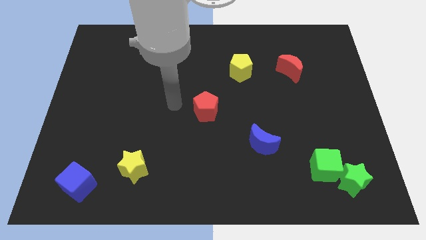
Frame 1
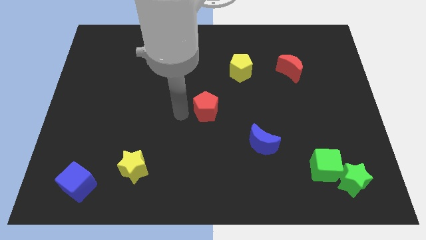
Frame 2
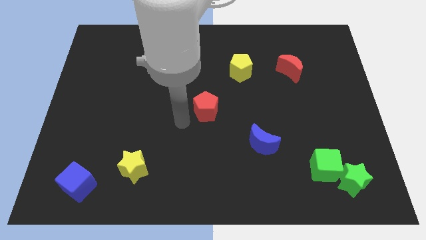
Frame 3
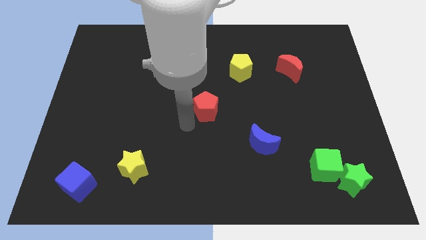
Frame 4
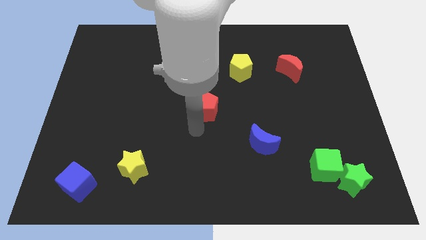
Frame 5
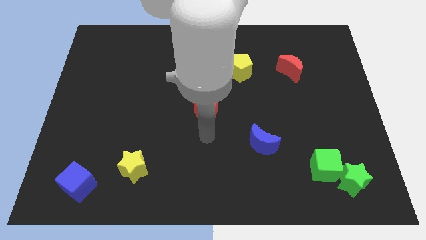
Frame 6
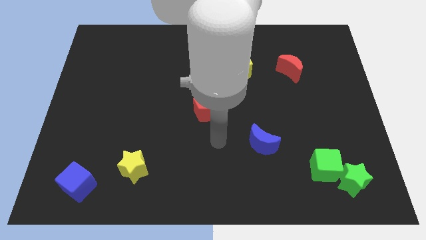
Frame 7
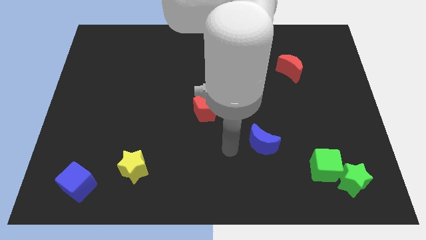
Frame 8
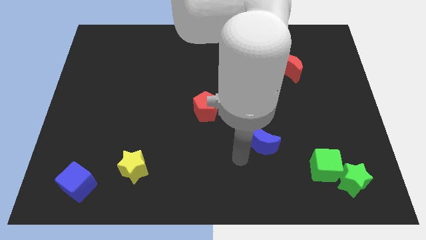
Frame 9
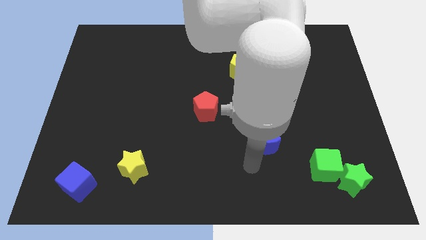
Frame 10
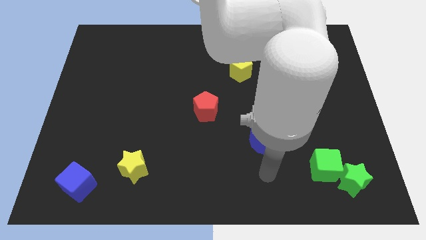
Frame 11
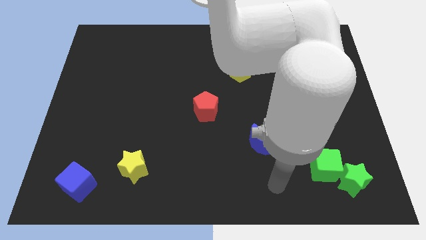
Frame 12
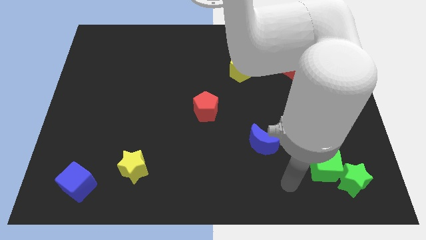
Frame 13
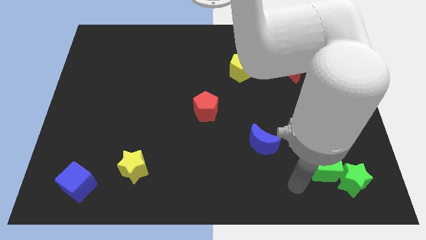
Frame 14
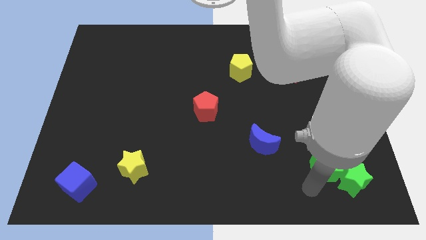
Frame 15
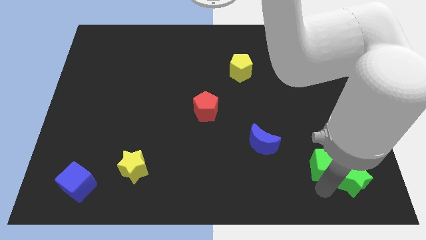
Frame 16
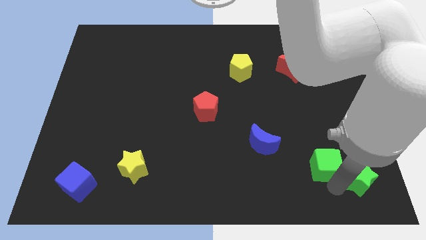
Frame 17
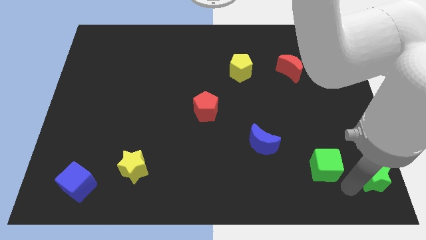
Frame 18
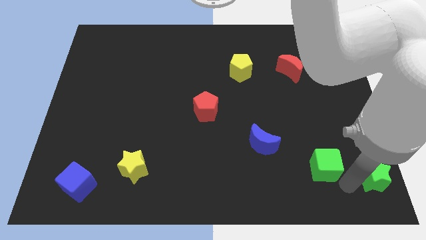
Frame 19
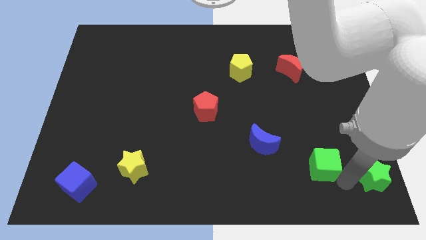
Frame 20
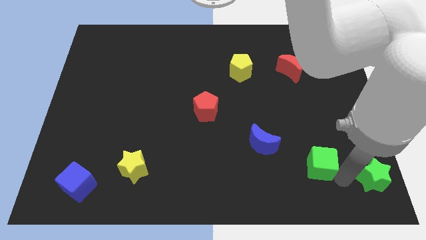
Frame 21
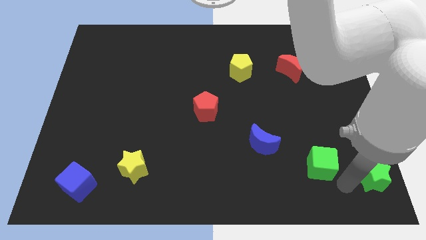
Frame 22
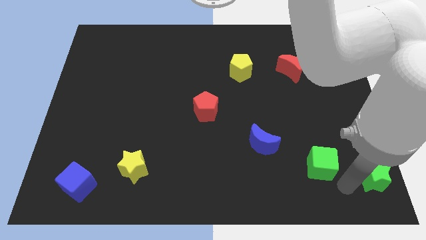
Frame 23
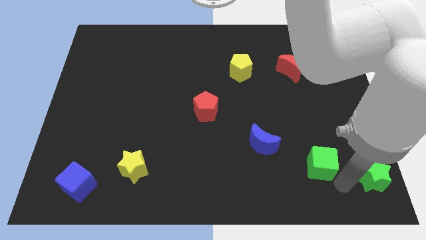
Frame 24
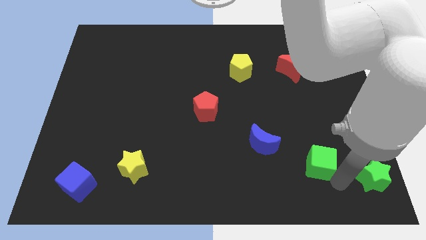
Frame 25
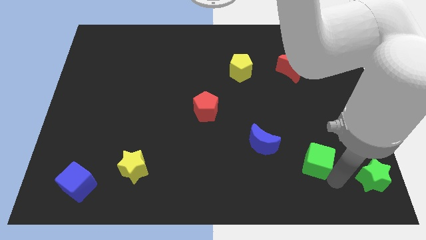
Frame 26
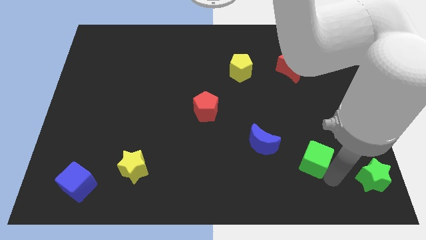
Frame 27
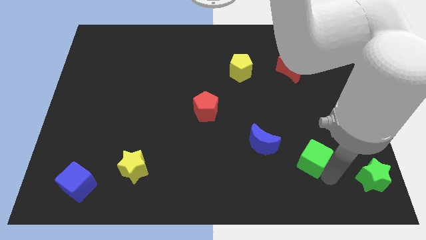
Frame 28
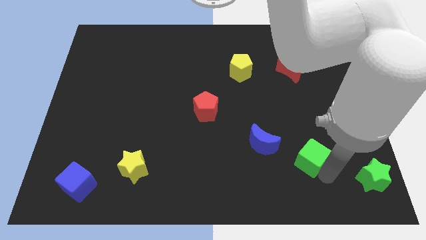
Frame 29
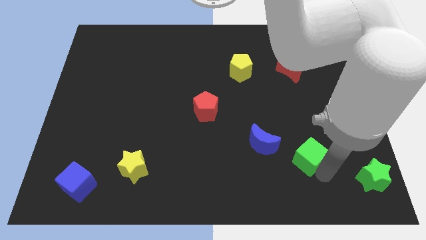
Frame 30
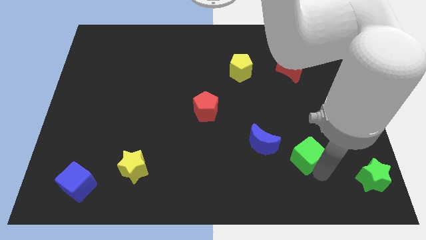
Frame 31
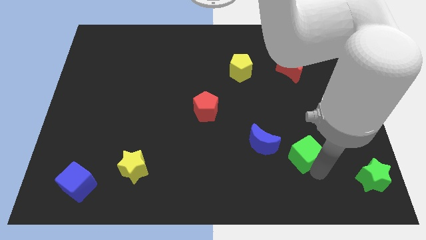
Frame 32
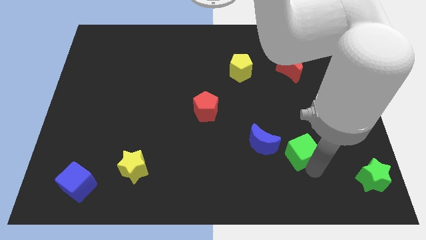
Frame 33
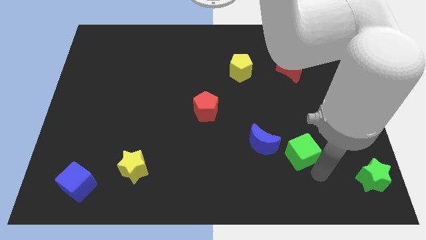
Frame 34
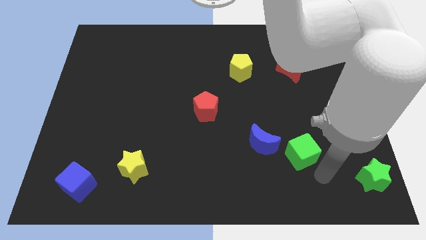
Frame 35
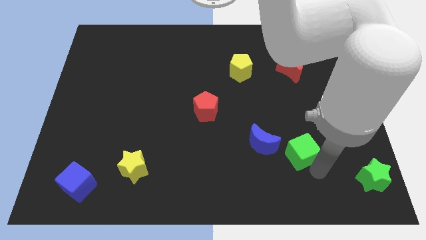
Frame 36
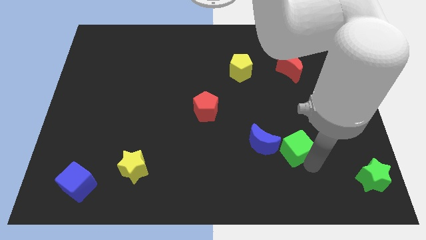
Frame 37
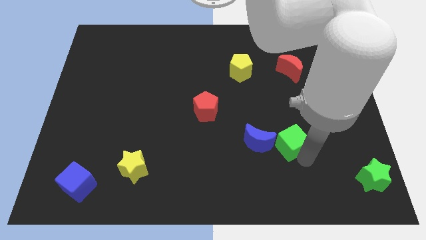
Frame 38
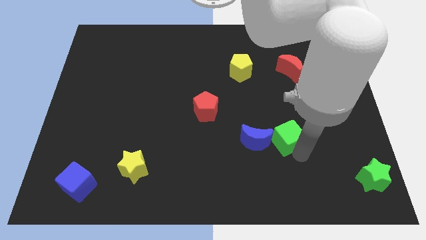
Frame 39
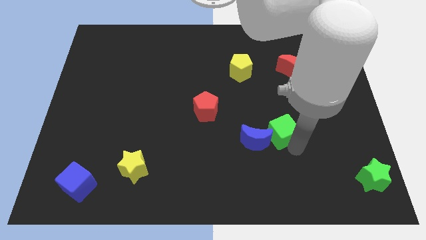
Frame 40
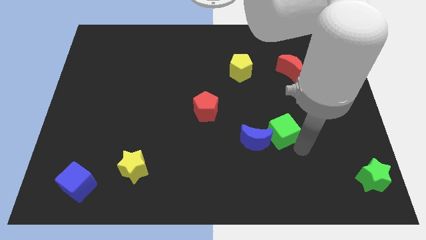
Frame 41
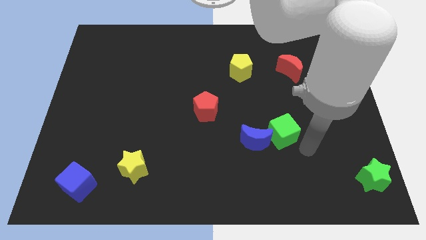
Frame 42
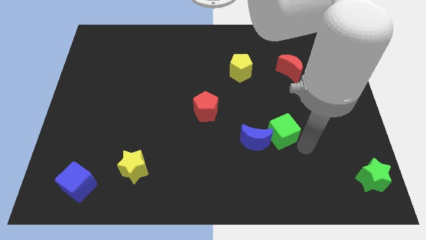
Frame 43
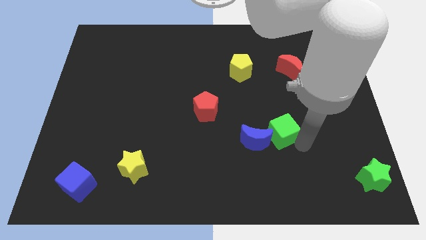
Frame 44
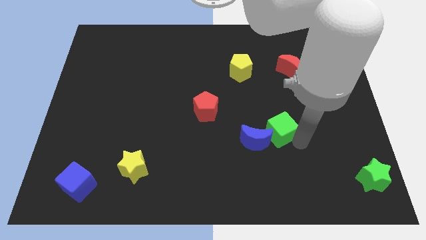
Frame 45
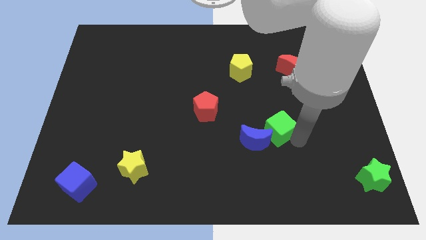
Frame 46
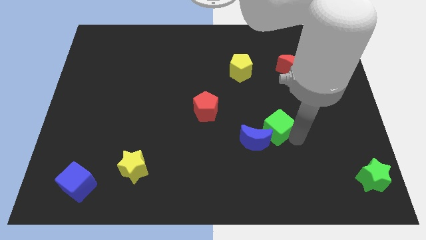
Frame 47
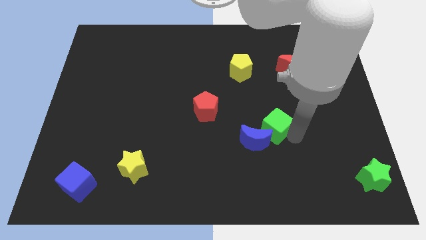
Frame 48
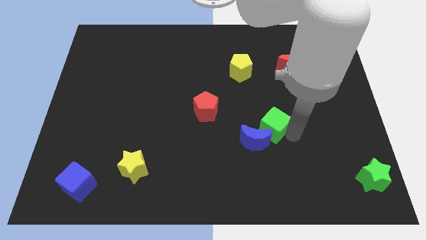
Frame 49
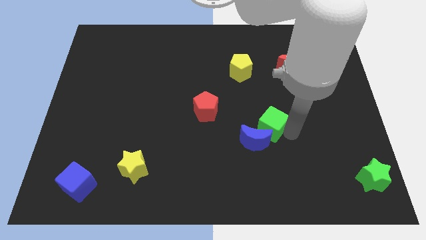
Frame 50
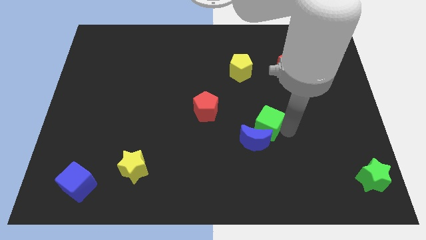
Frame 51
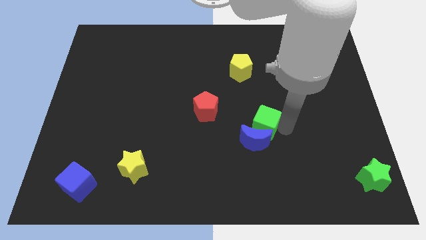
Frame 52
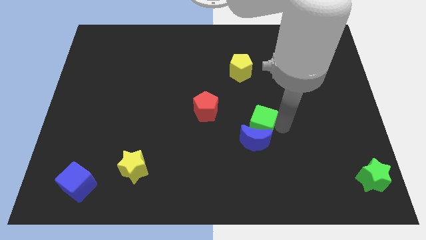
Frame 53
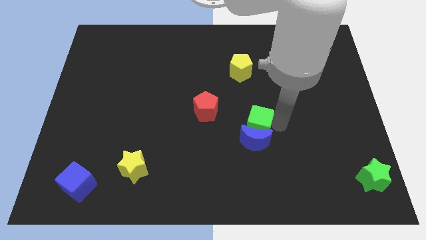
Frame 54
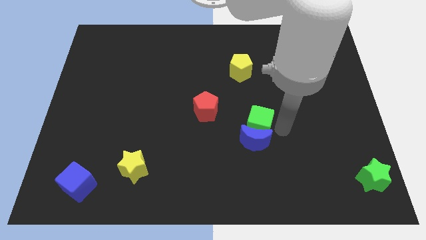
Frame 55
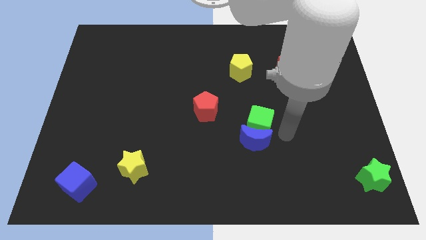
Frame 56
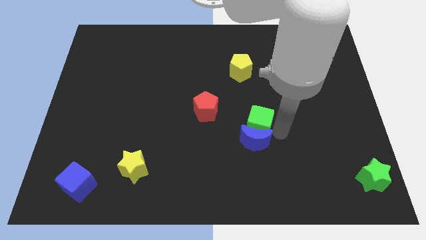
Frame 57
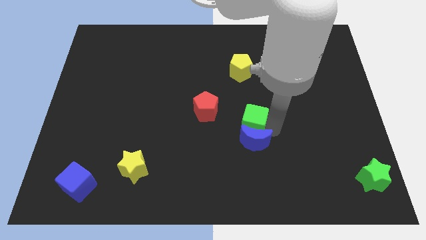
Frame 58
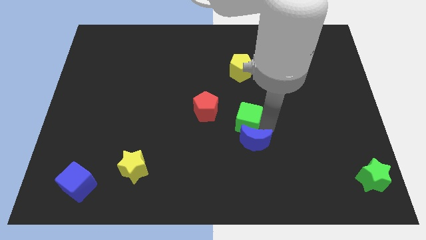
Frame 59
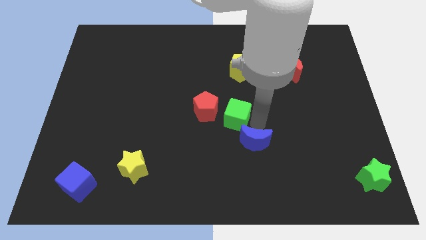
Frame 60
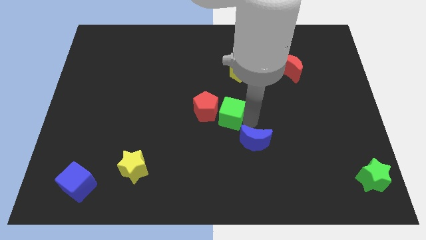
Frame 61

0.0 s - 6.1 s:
move the green cube next to the red pentagon

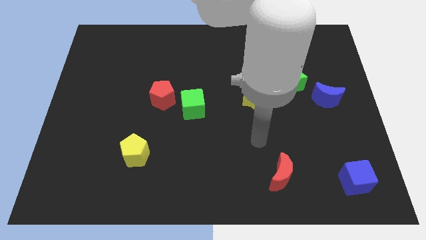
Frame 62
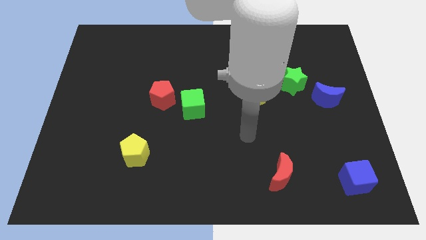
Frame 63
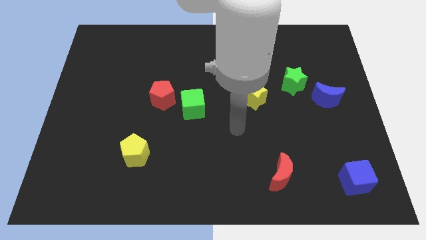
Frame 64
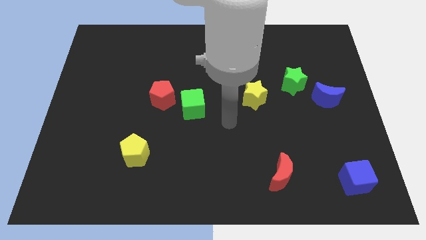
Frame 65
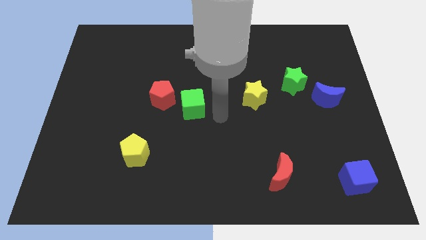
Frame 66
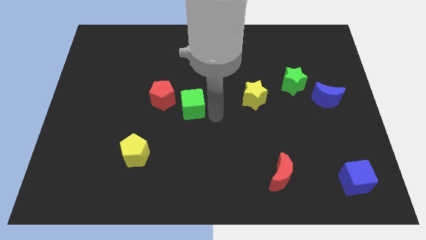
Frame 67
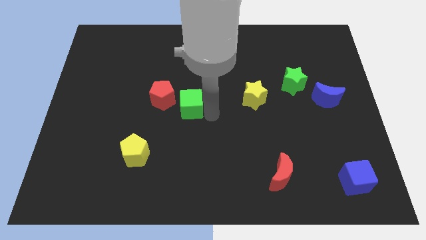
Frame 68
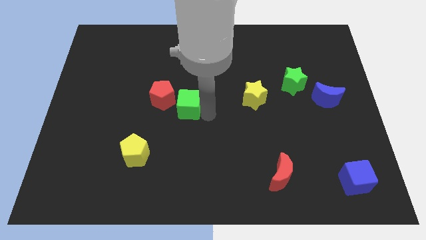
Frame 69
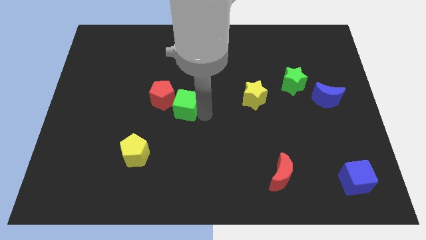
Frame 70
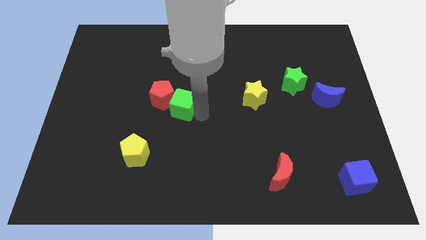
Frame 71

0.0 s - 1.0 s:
put the green cube close to the red pentagon
